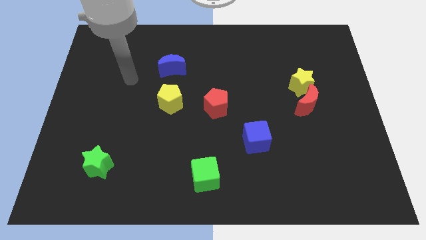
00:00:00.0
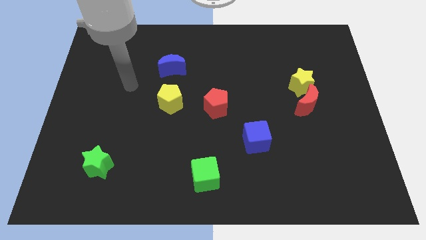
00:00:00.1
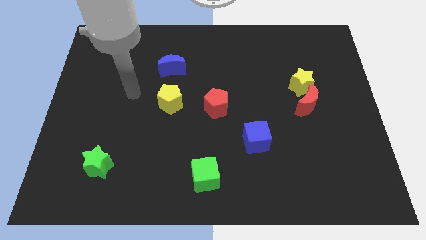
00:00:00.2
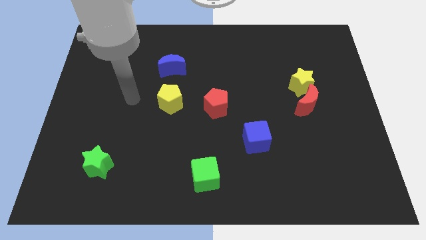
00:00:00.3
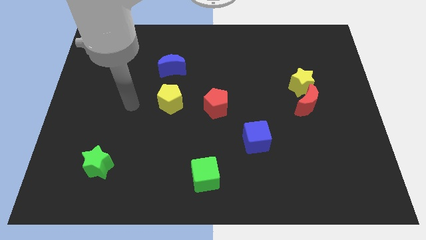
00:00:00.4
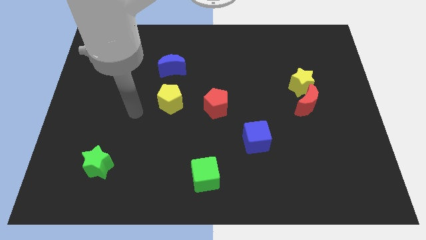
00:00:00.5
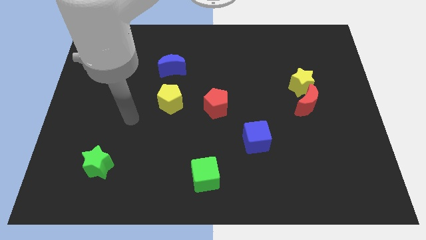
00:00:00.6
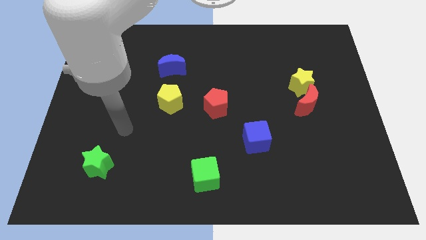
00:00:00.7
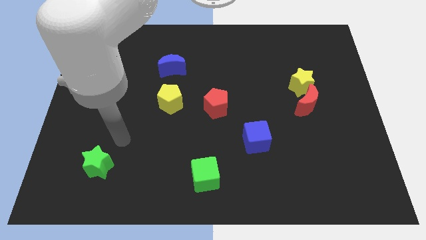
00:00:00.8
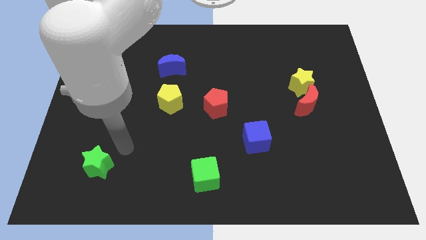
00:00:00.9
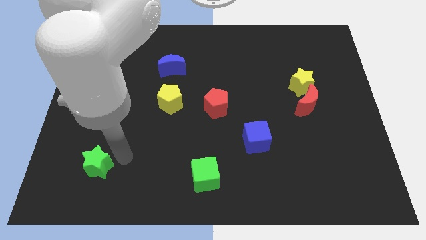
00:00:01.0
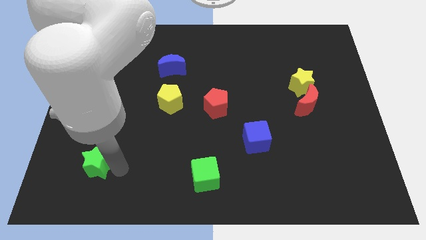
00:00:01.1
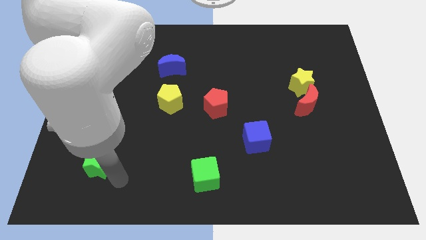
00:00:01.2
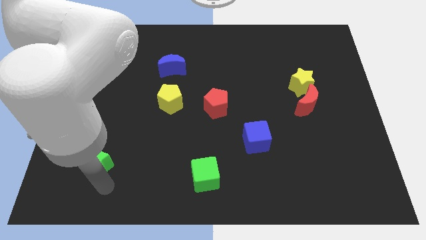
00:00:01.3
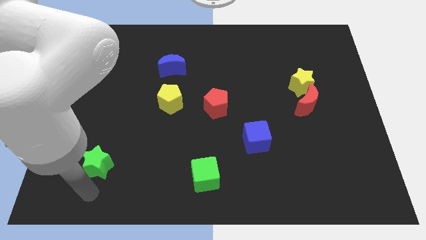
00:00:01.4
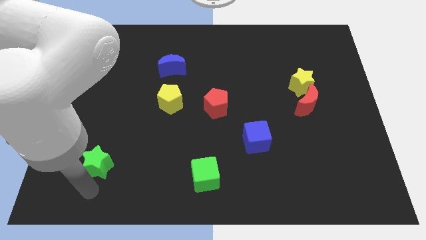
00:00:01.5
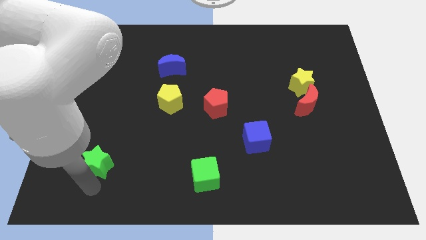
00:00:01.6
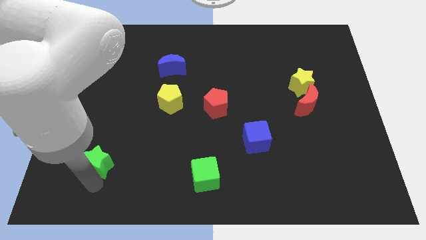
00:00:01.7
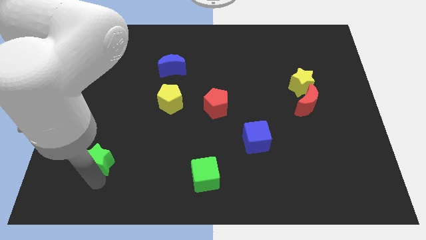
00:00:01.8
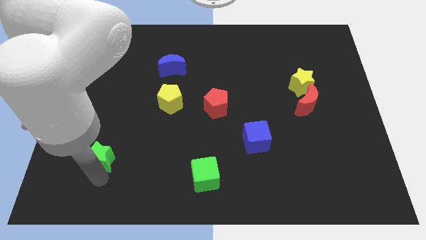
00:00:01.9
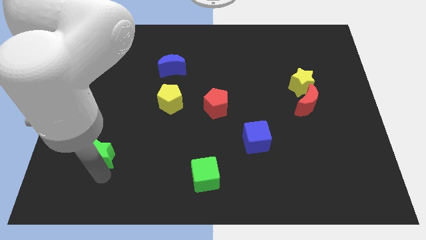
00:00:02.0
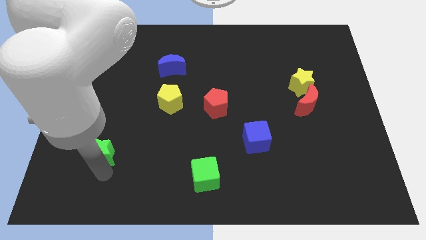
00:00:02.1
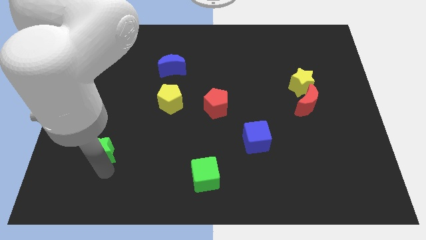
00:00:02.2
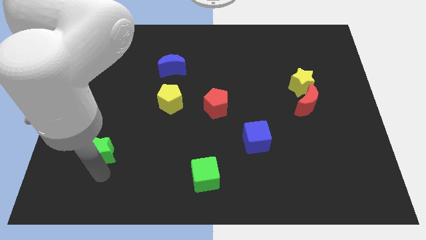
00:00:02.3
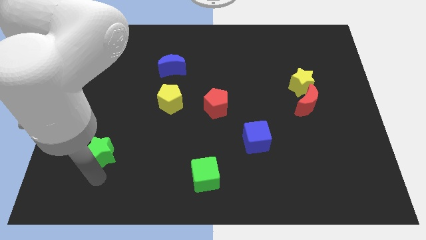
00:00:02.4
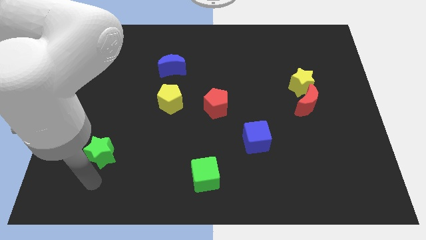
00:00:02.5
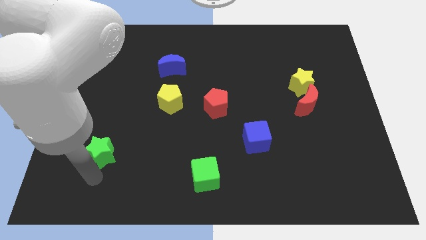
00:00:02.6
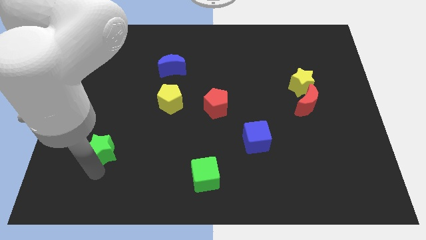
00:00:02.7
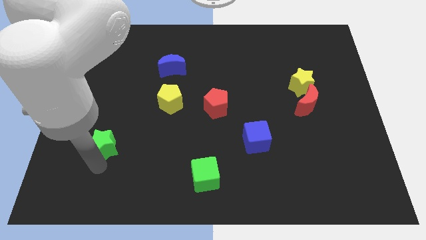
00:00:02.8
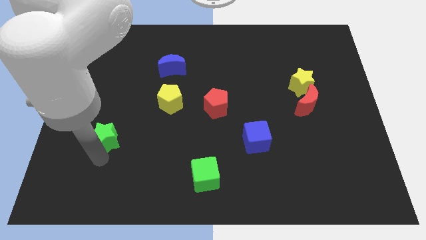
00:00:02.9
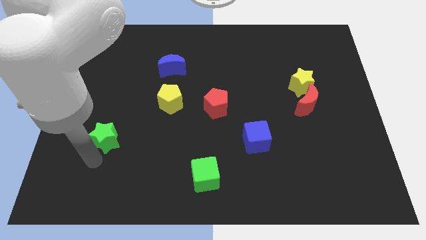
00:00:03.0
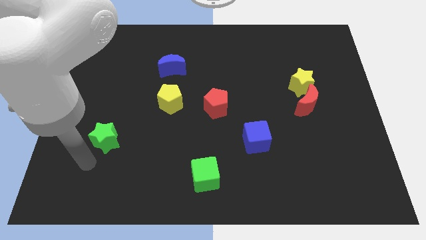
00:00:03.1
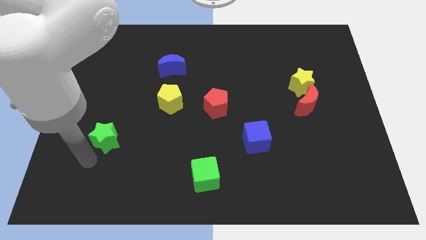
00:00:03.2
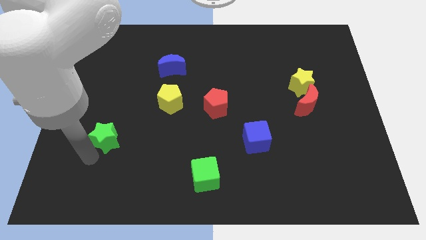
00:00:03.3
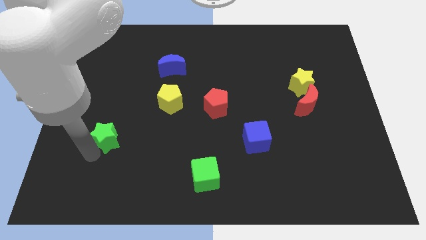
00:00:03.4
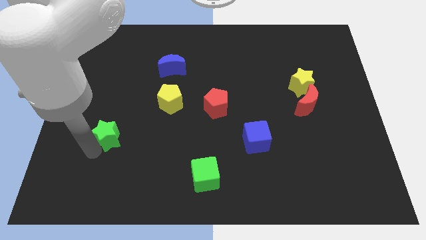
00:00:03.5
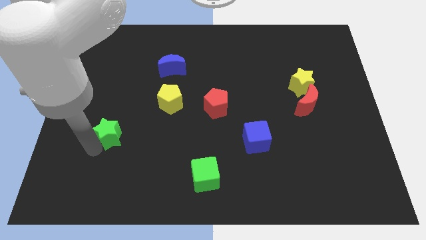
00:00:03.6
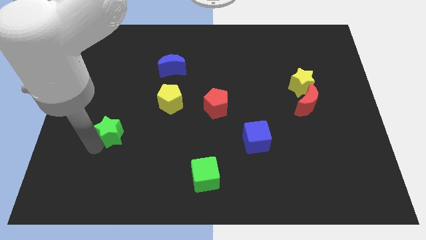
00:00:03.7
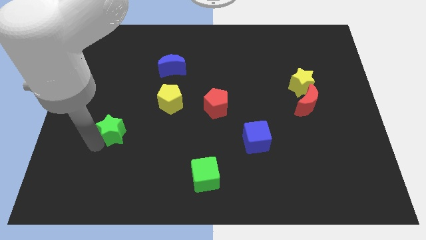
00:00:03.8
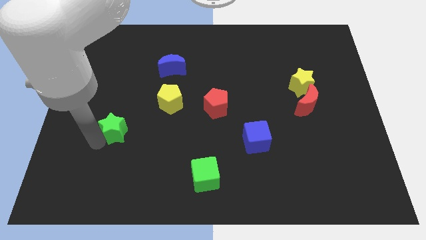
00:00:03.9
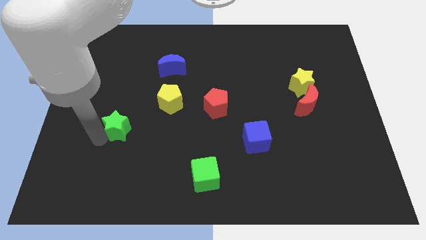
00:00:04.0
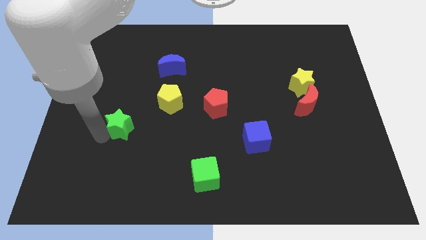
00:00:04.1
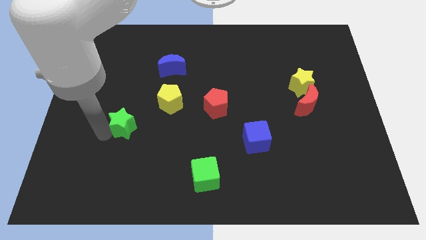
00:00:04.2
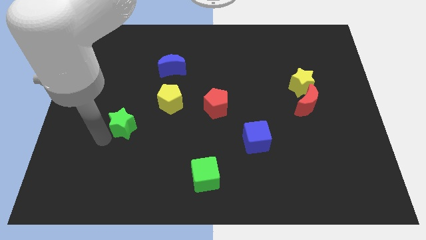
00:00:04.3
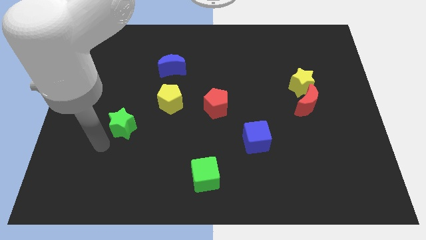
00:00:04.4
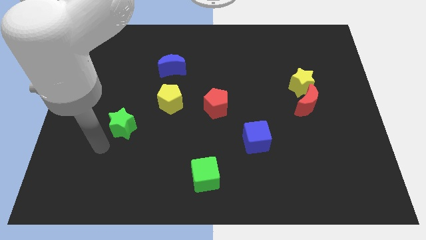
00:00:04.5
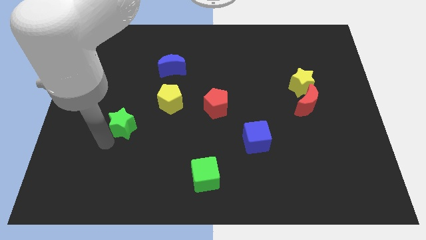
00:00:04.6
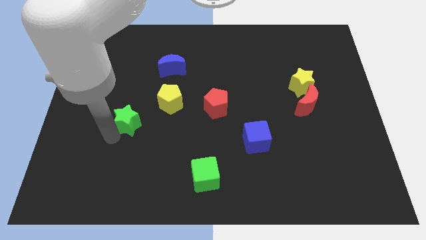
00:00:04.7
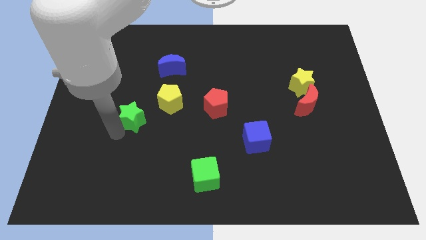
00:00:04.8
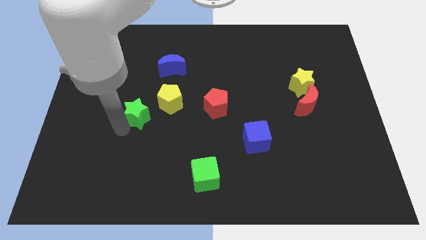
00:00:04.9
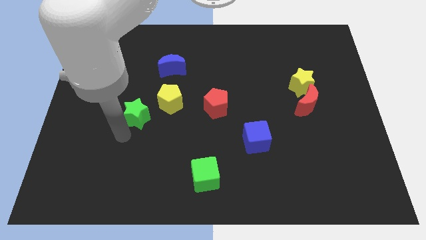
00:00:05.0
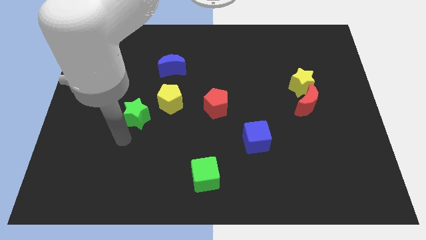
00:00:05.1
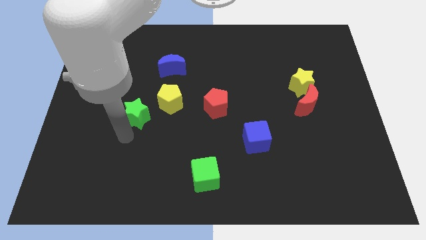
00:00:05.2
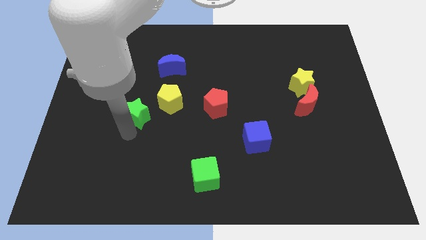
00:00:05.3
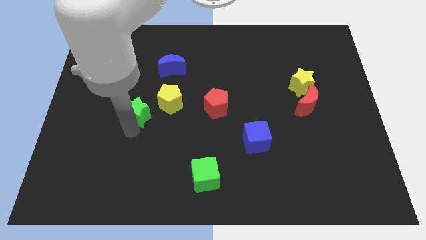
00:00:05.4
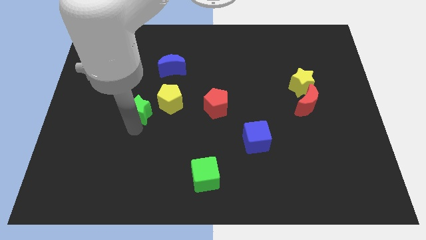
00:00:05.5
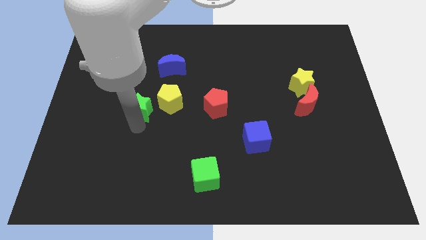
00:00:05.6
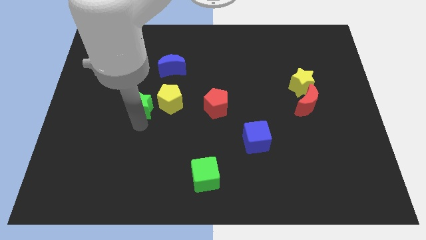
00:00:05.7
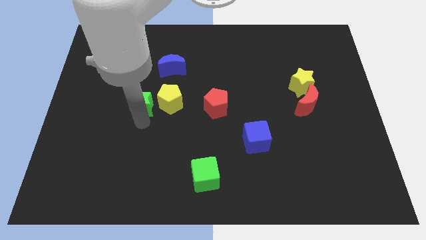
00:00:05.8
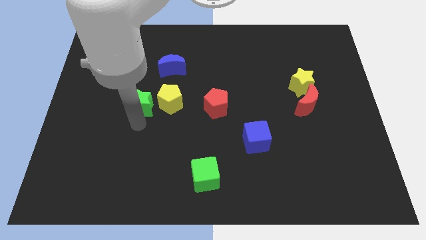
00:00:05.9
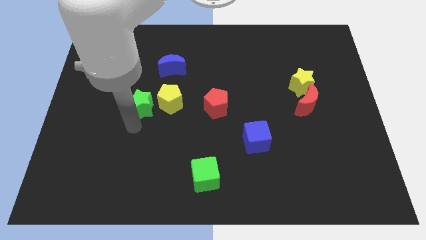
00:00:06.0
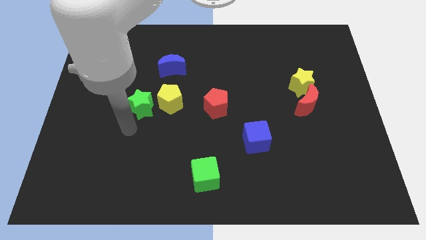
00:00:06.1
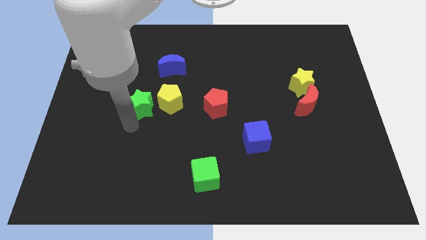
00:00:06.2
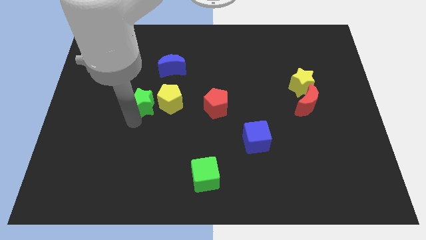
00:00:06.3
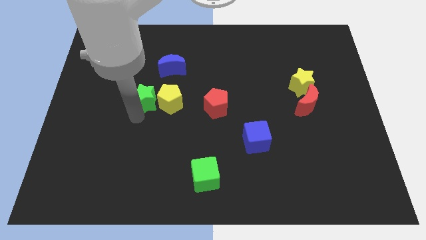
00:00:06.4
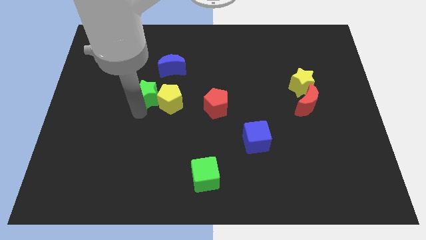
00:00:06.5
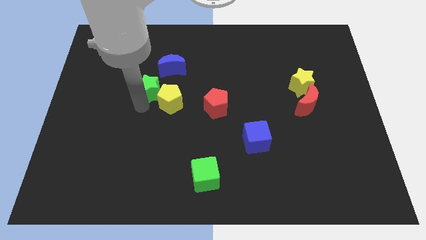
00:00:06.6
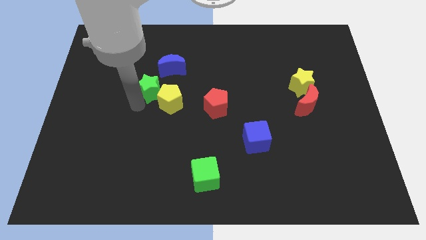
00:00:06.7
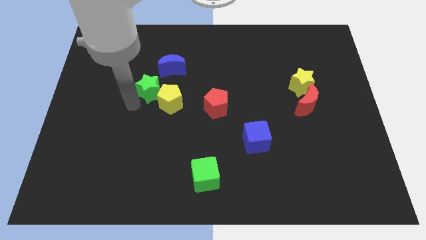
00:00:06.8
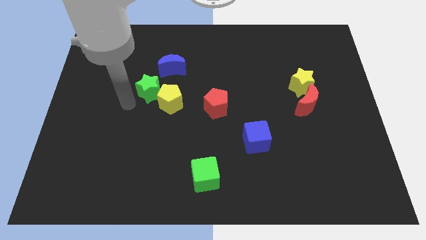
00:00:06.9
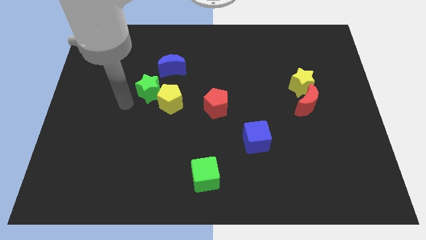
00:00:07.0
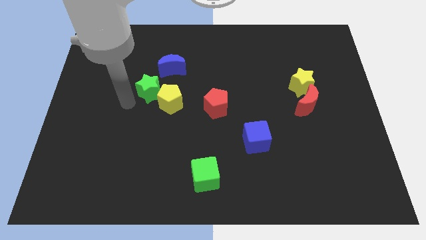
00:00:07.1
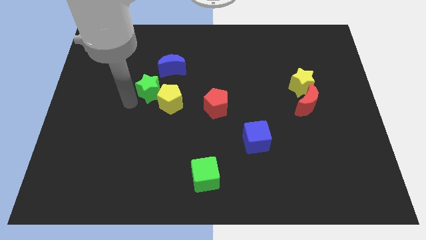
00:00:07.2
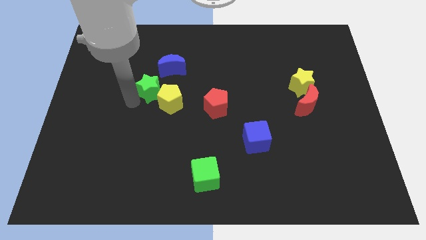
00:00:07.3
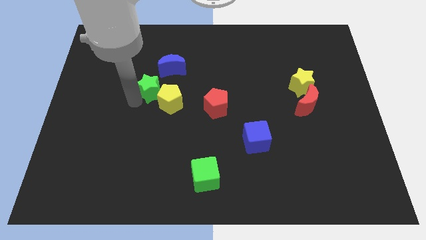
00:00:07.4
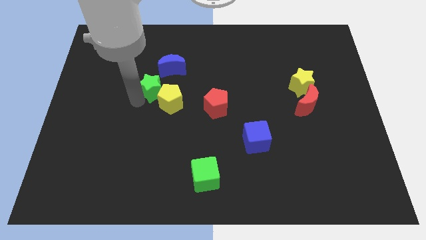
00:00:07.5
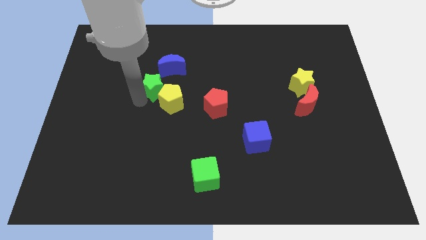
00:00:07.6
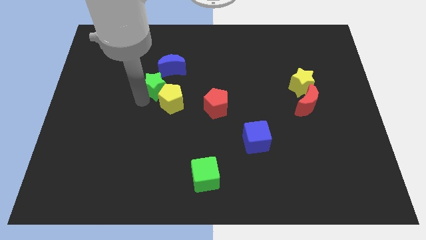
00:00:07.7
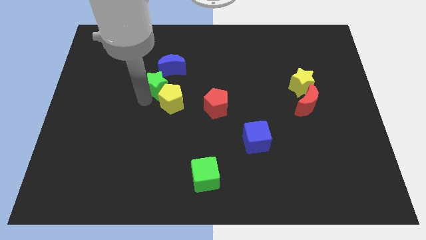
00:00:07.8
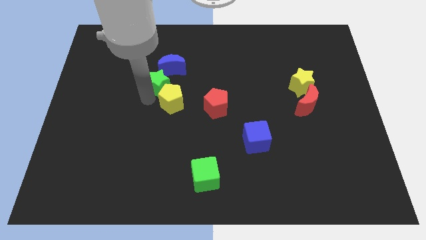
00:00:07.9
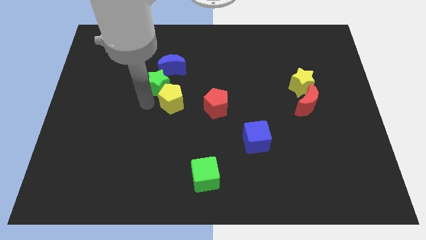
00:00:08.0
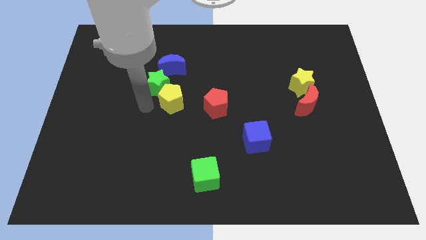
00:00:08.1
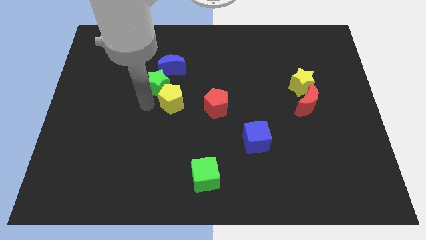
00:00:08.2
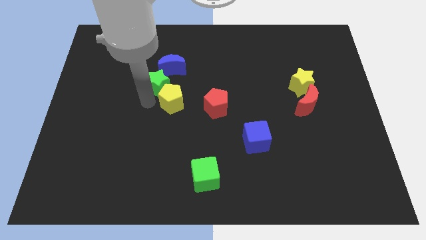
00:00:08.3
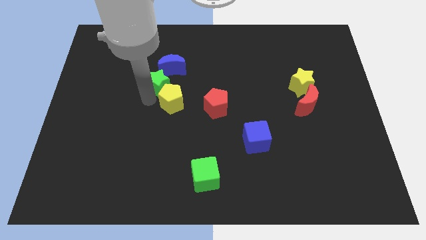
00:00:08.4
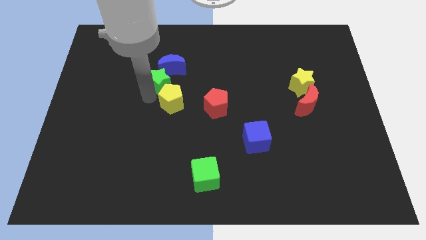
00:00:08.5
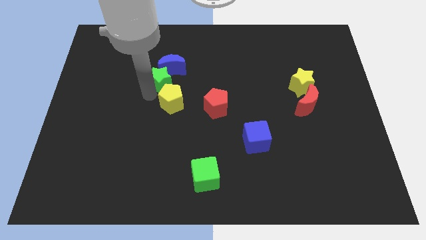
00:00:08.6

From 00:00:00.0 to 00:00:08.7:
slide the green star to the blue moon
